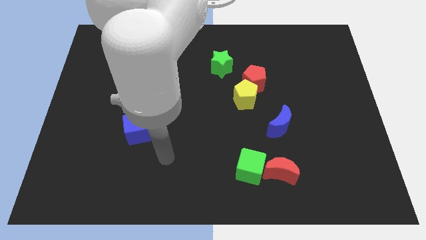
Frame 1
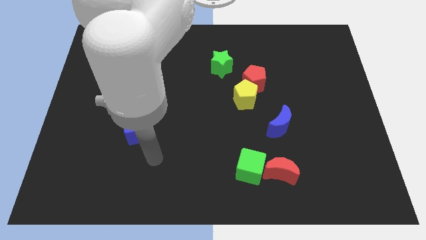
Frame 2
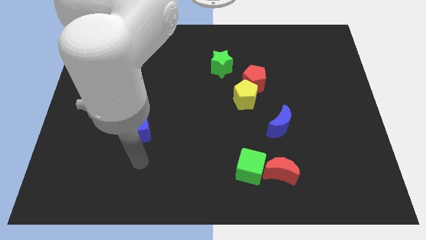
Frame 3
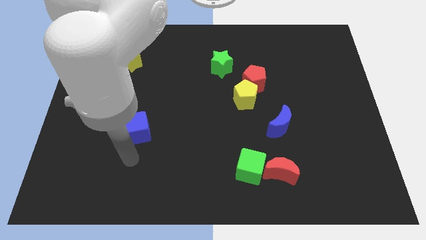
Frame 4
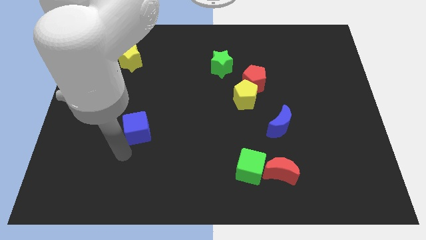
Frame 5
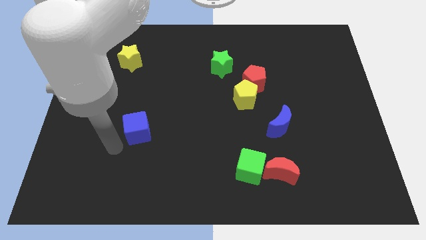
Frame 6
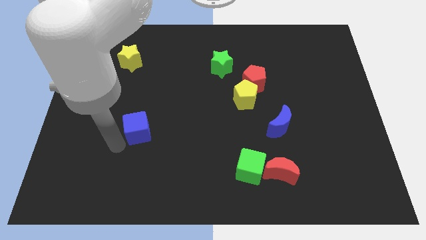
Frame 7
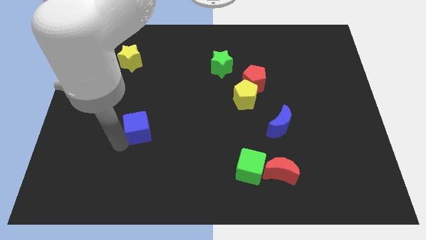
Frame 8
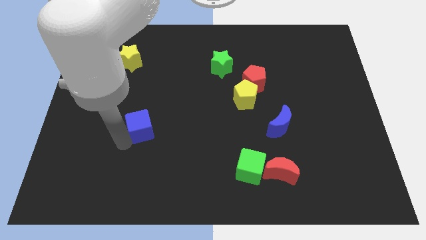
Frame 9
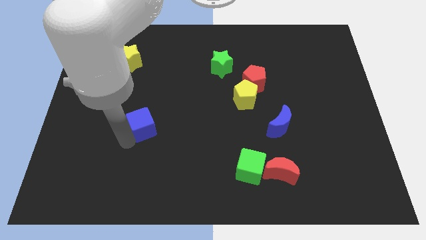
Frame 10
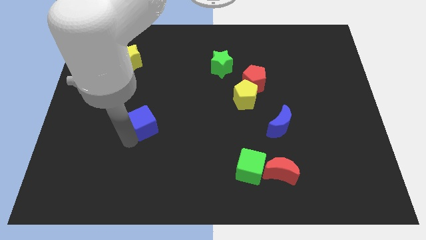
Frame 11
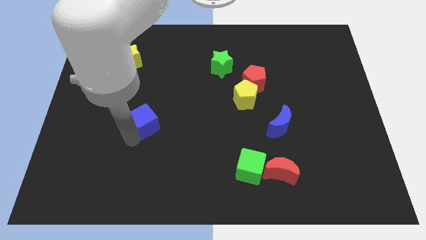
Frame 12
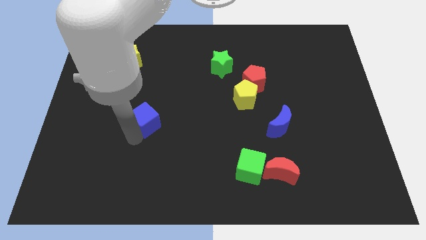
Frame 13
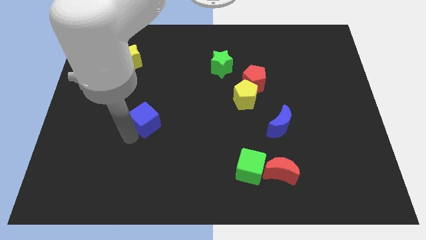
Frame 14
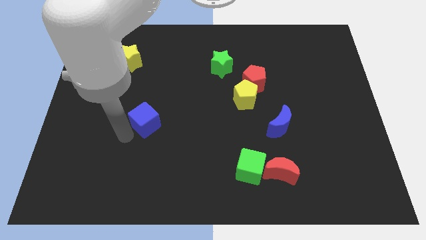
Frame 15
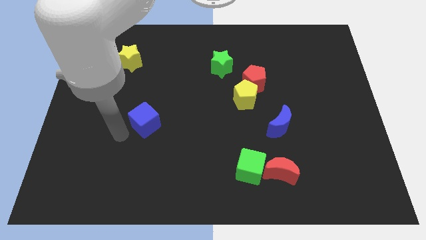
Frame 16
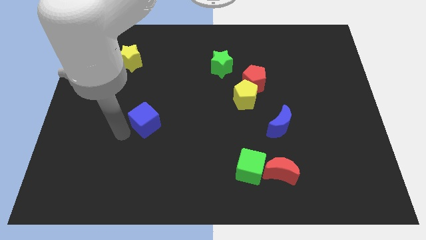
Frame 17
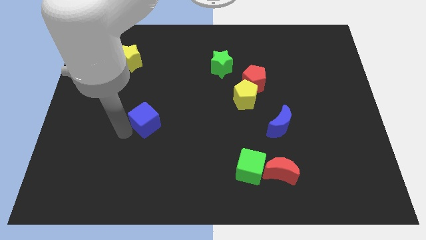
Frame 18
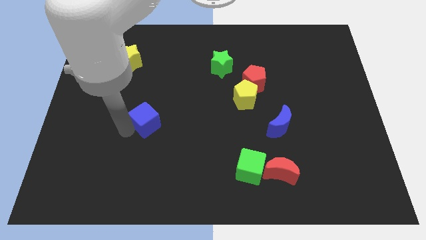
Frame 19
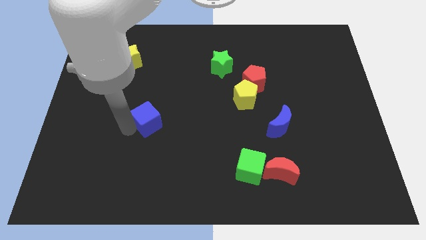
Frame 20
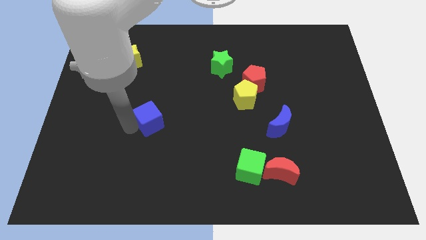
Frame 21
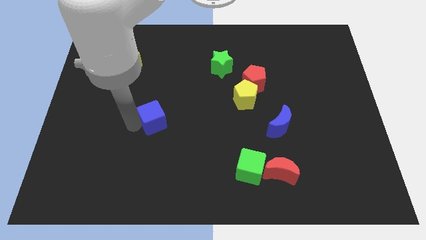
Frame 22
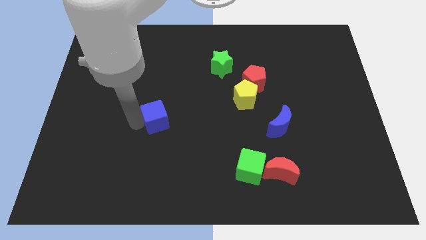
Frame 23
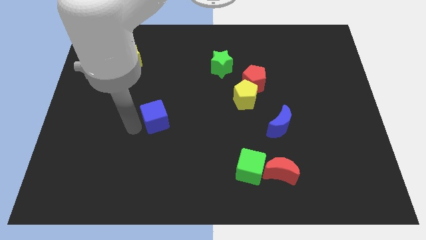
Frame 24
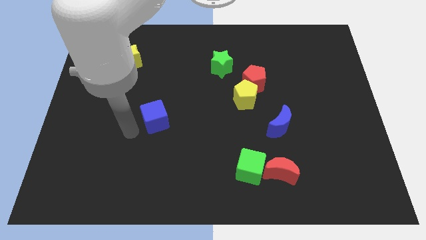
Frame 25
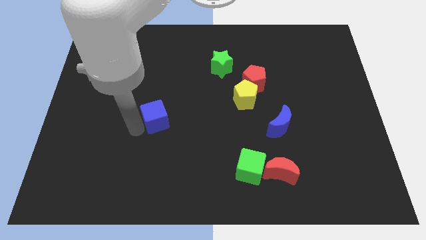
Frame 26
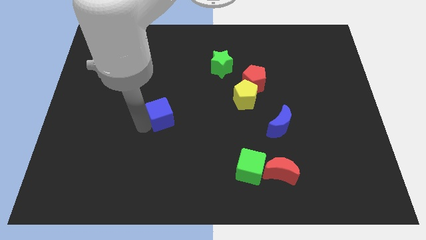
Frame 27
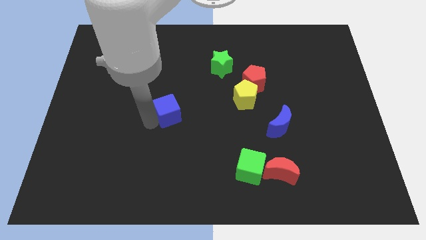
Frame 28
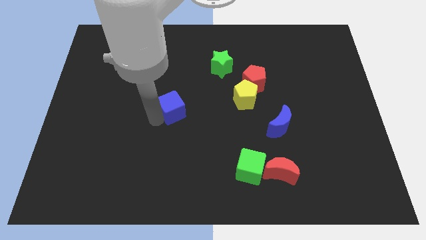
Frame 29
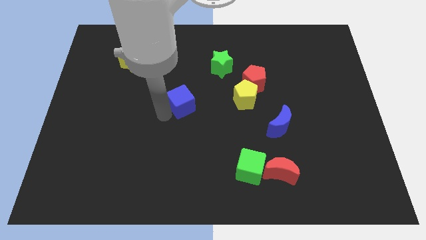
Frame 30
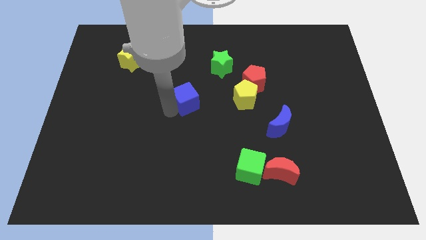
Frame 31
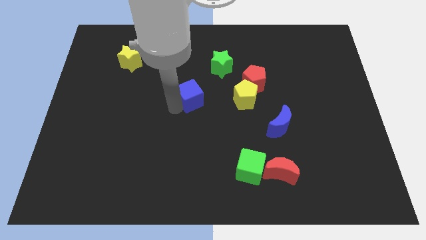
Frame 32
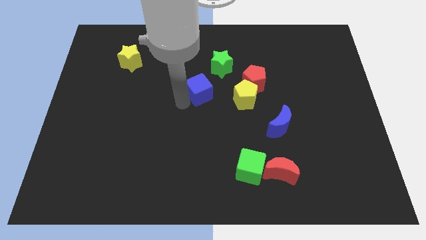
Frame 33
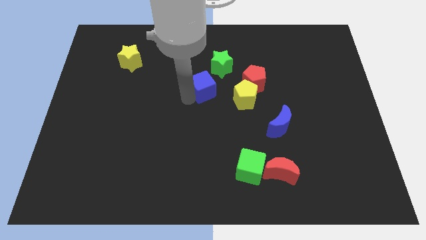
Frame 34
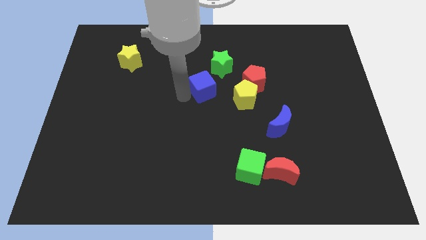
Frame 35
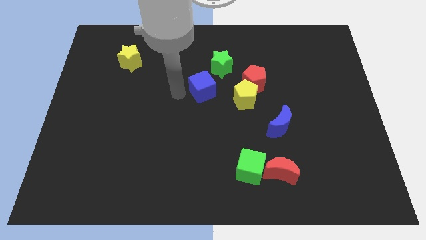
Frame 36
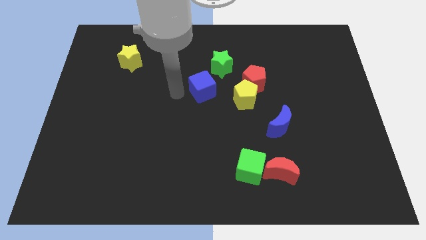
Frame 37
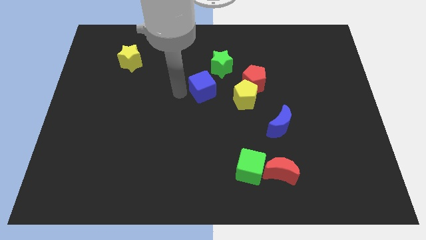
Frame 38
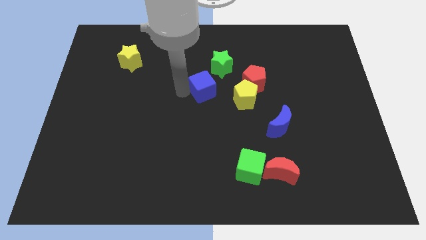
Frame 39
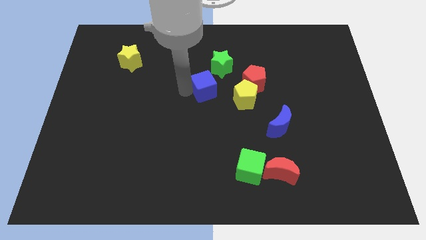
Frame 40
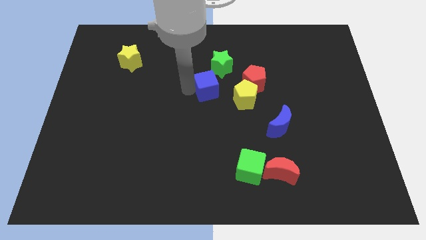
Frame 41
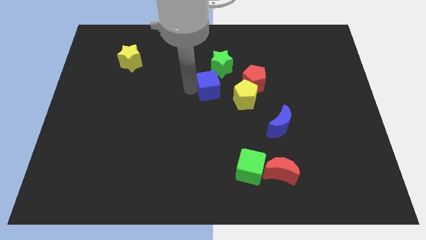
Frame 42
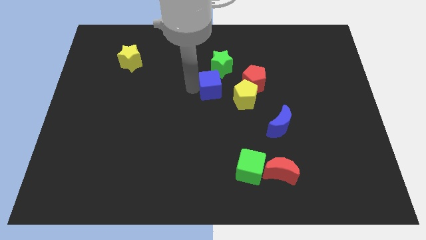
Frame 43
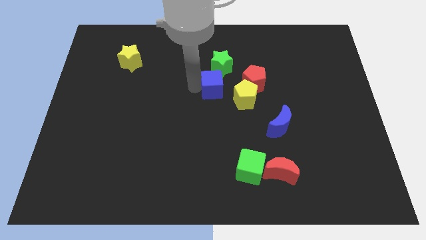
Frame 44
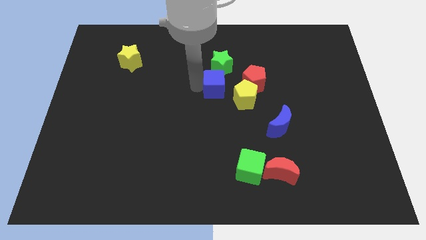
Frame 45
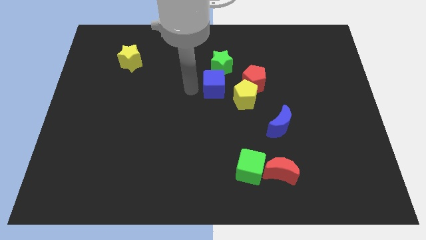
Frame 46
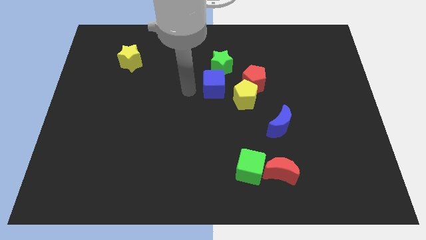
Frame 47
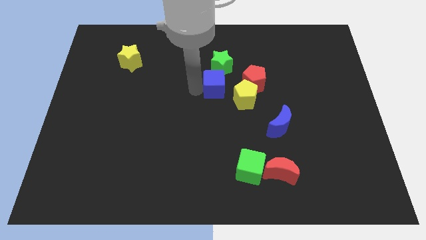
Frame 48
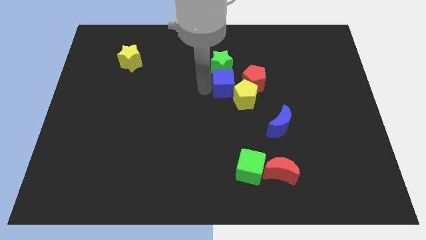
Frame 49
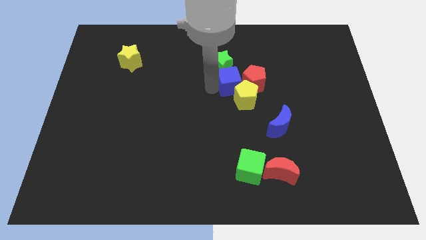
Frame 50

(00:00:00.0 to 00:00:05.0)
slide the blue cube close to the red pentagon

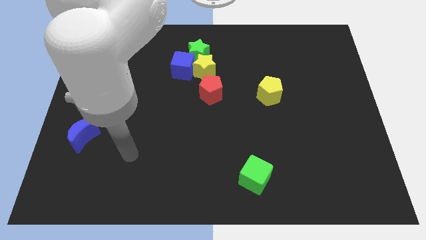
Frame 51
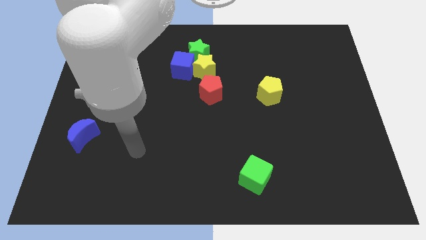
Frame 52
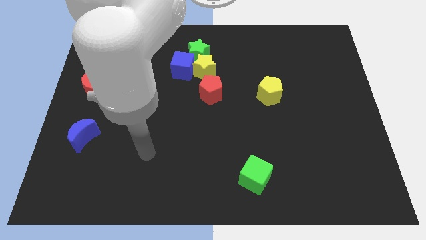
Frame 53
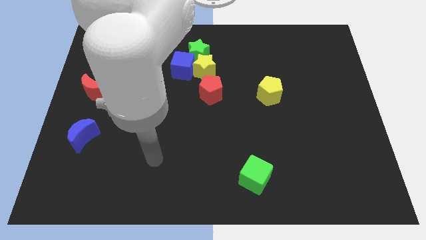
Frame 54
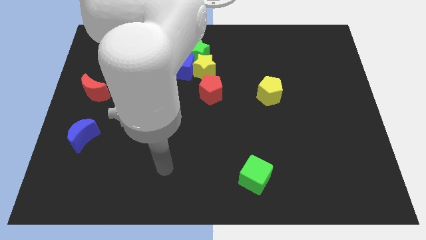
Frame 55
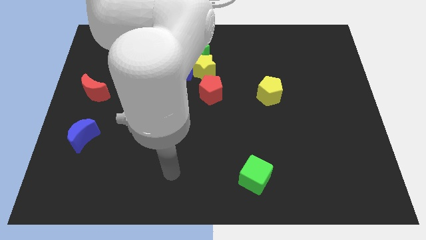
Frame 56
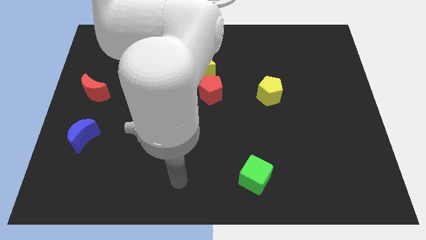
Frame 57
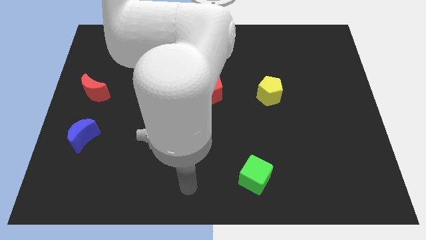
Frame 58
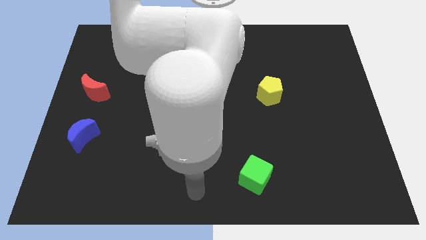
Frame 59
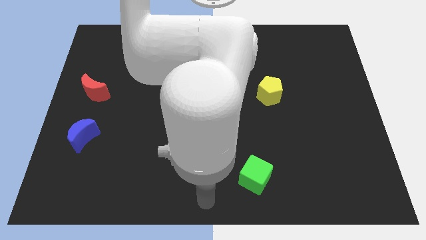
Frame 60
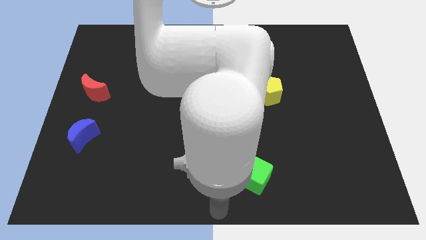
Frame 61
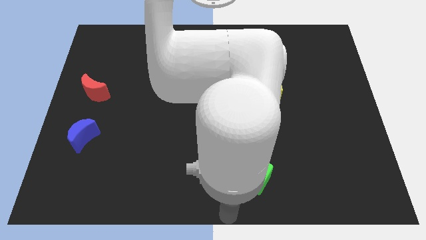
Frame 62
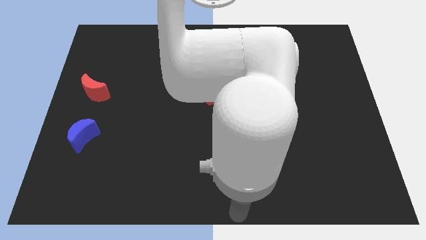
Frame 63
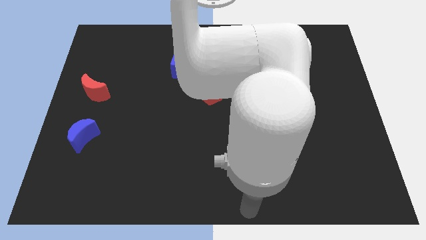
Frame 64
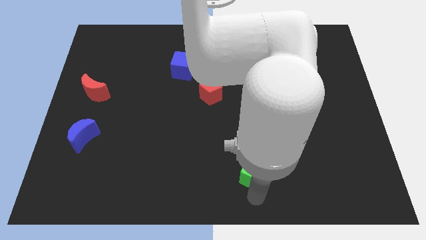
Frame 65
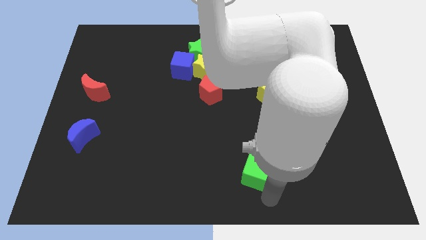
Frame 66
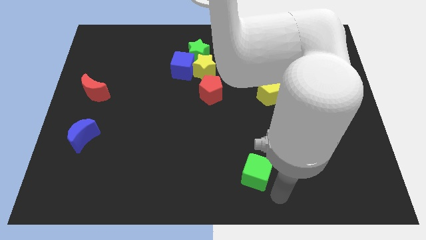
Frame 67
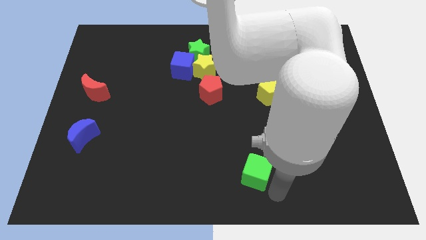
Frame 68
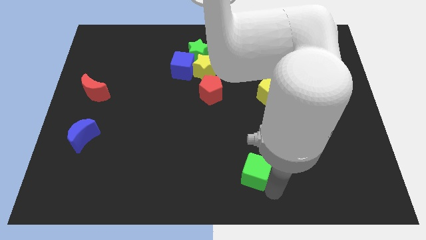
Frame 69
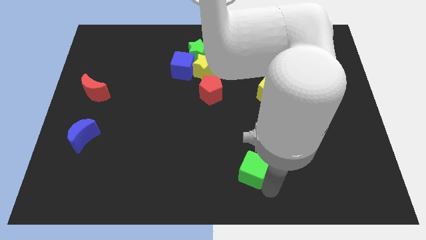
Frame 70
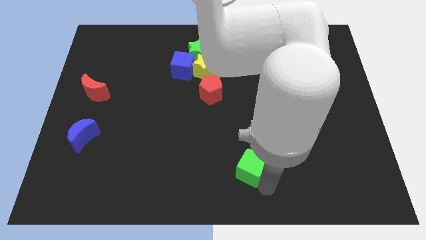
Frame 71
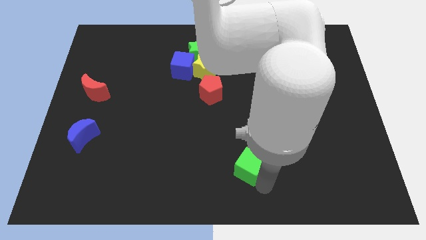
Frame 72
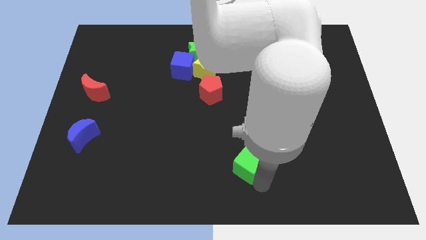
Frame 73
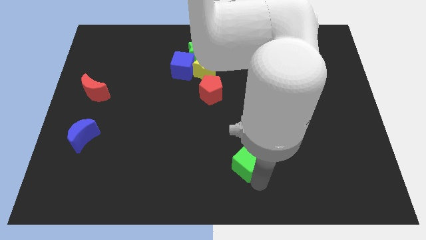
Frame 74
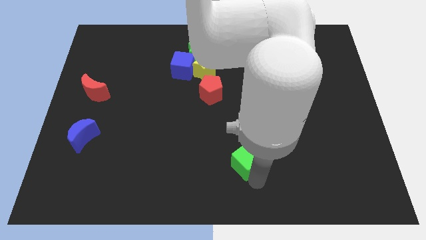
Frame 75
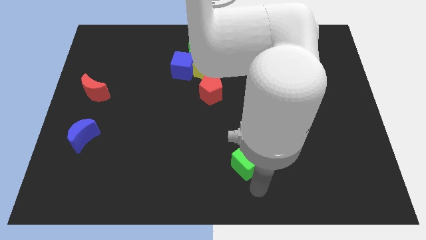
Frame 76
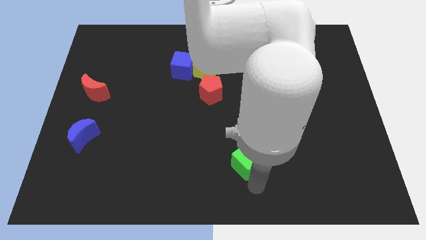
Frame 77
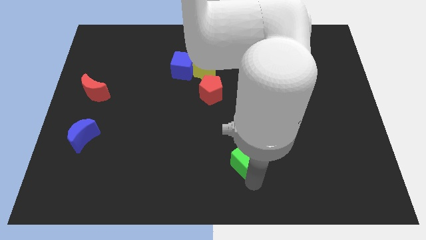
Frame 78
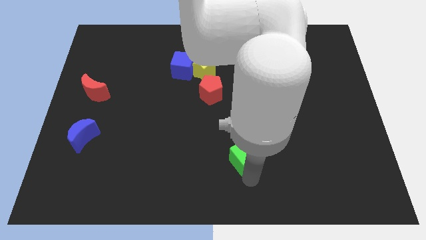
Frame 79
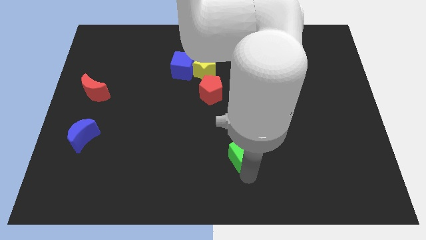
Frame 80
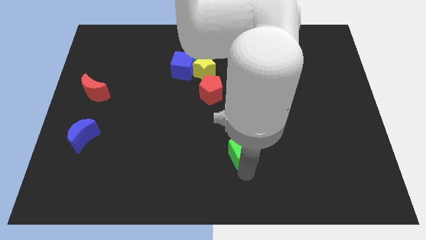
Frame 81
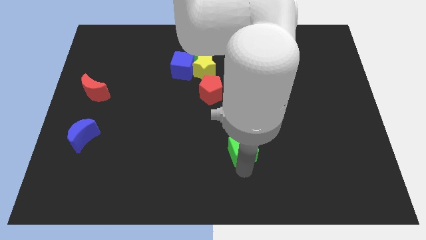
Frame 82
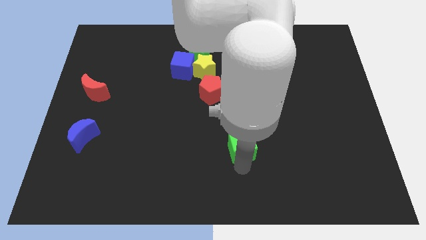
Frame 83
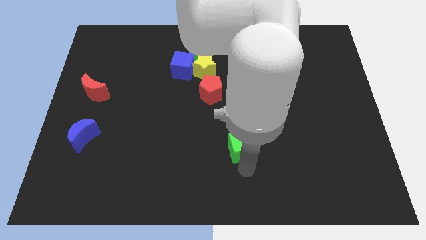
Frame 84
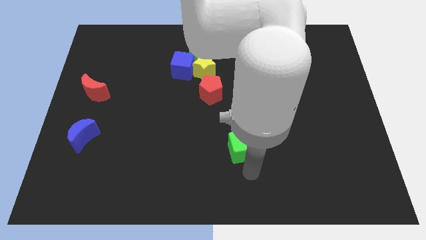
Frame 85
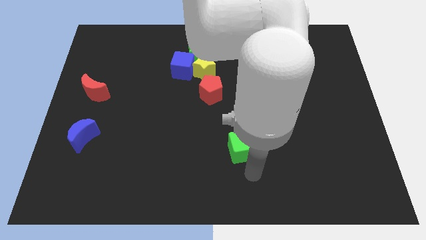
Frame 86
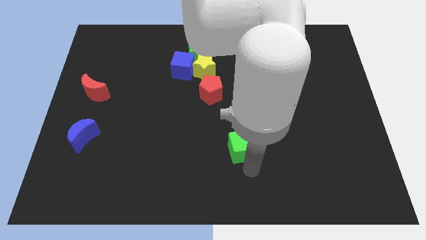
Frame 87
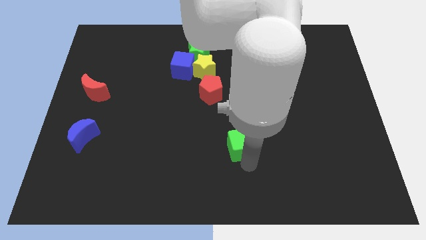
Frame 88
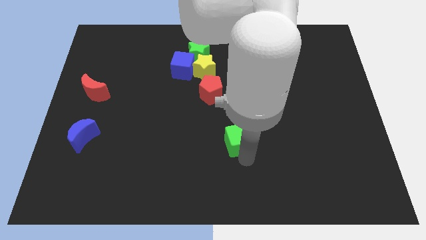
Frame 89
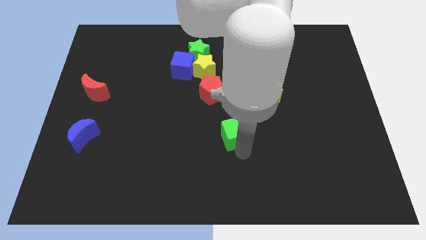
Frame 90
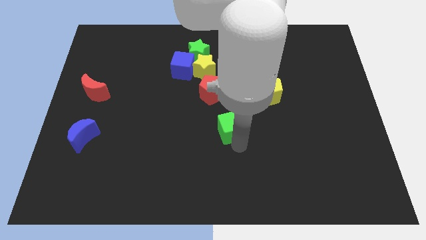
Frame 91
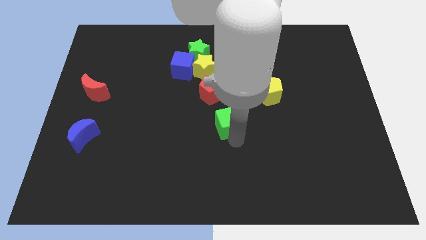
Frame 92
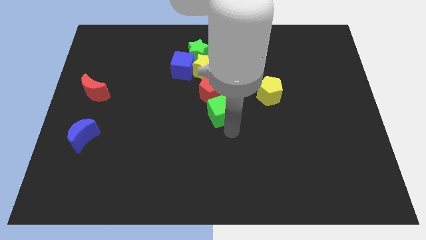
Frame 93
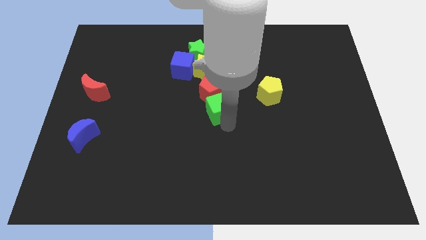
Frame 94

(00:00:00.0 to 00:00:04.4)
push the green cube towards the red pentagon
